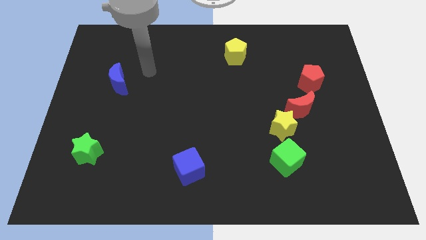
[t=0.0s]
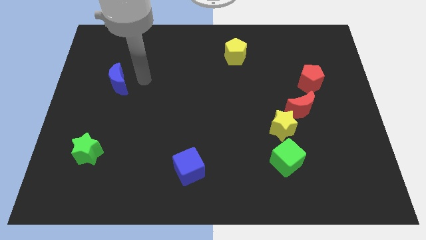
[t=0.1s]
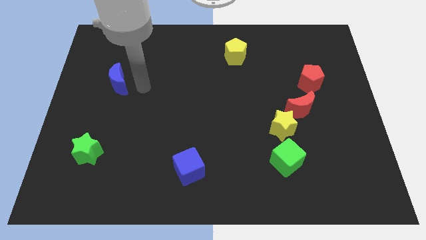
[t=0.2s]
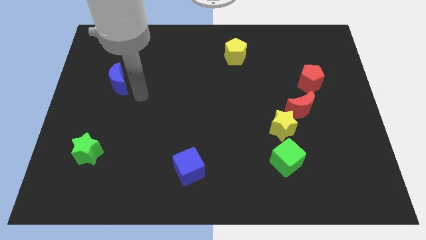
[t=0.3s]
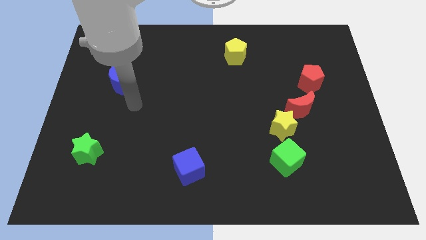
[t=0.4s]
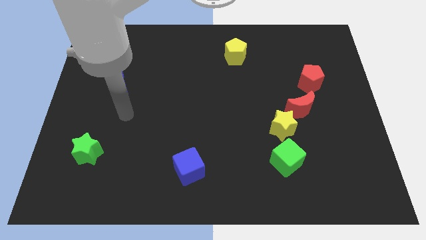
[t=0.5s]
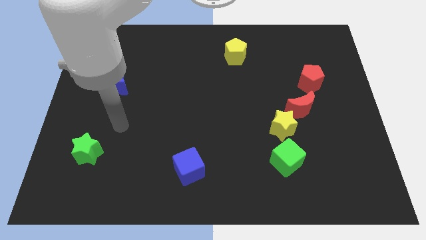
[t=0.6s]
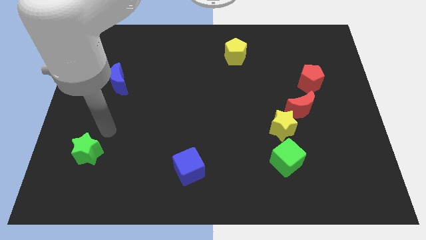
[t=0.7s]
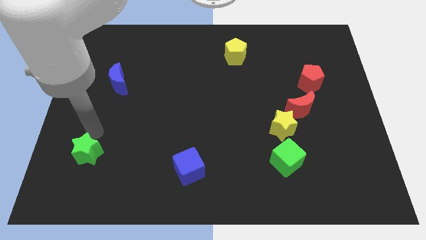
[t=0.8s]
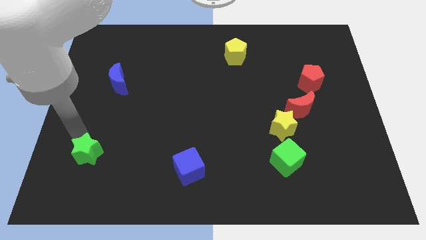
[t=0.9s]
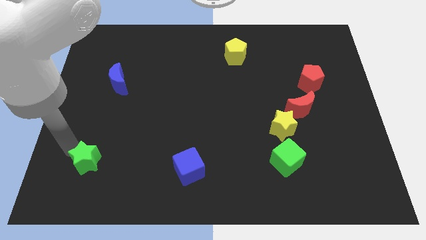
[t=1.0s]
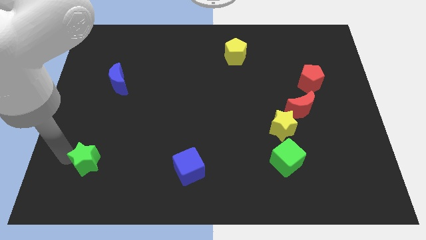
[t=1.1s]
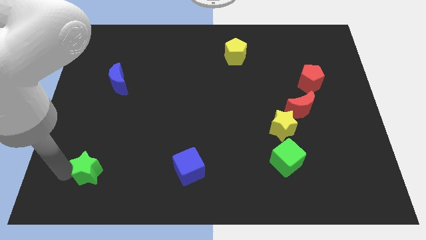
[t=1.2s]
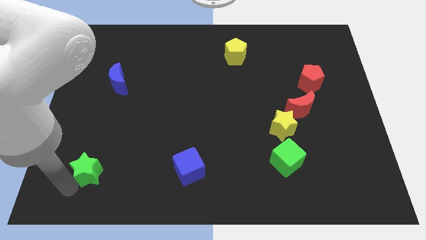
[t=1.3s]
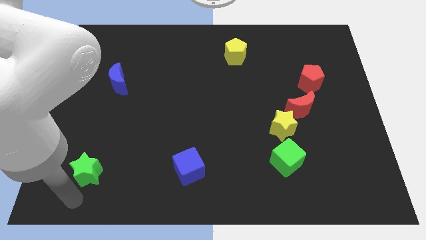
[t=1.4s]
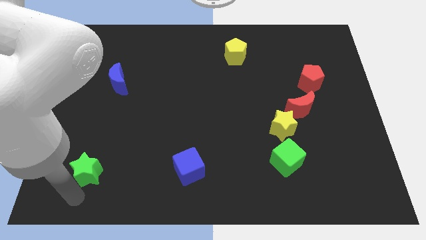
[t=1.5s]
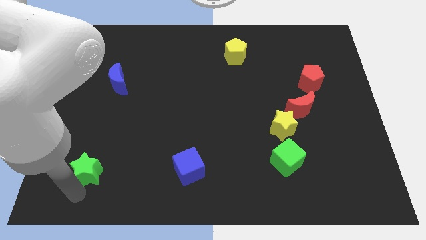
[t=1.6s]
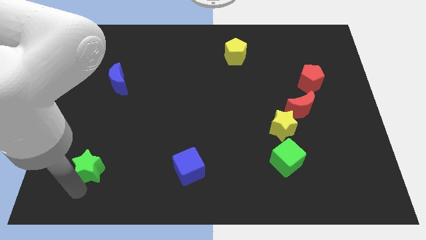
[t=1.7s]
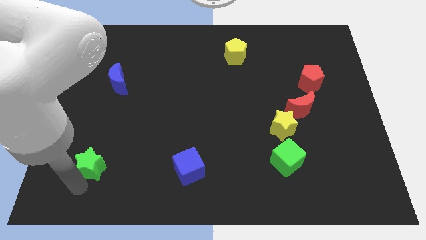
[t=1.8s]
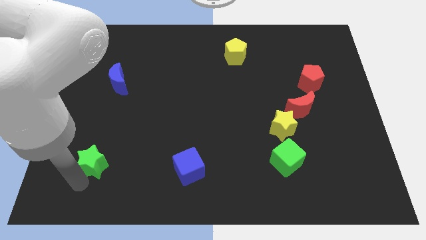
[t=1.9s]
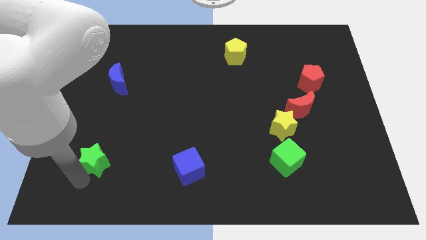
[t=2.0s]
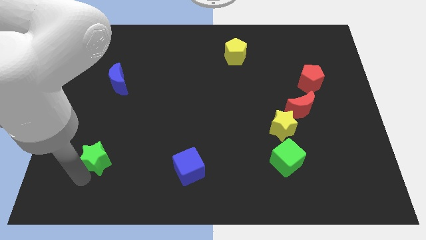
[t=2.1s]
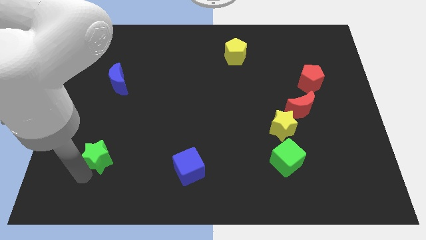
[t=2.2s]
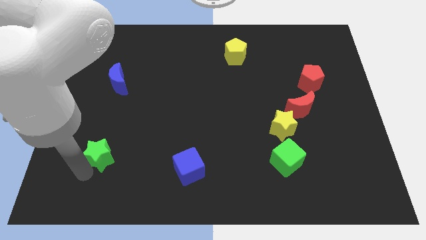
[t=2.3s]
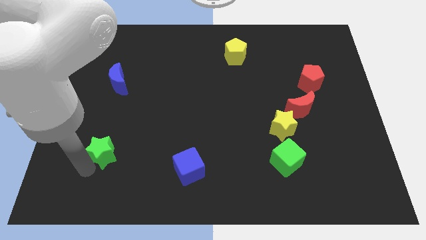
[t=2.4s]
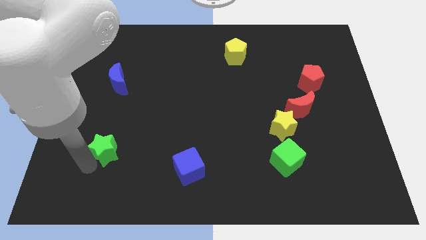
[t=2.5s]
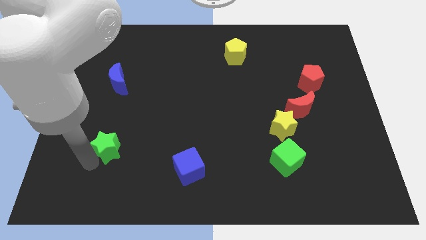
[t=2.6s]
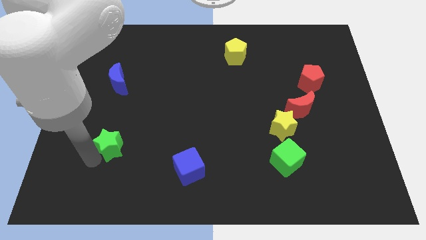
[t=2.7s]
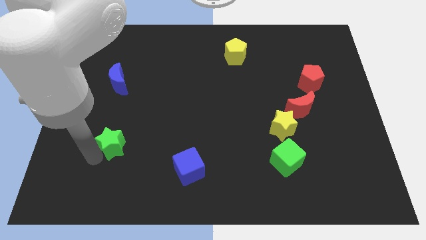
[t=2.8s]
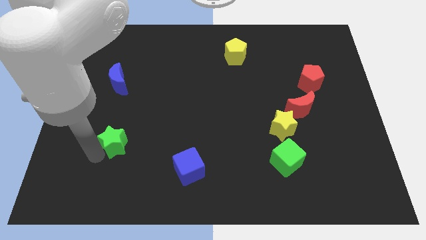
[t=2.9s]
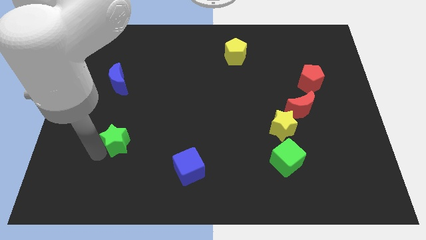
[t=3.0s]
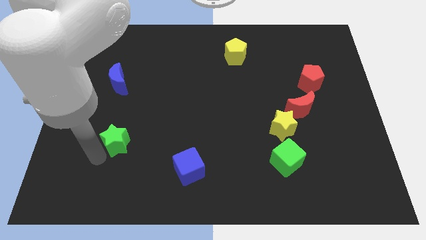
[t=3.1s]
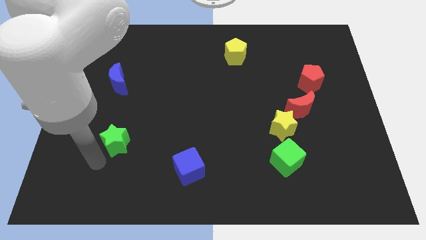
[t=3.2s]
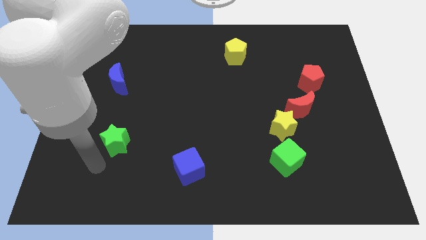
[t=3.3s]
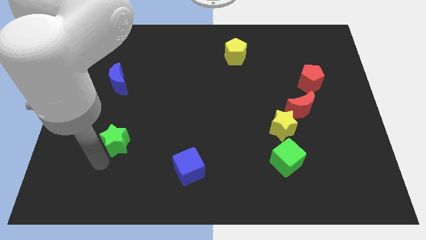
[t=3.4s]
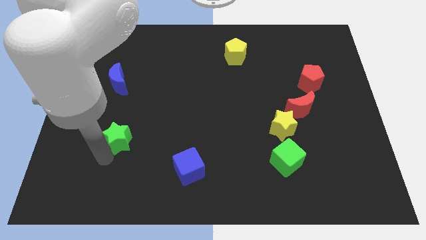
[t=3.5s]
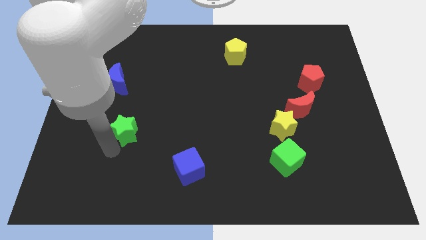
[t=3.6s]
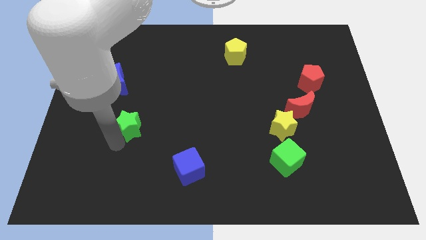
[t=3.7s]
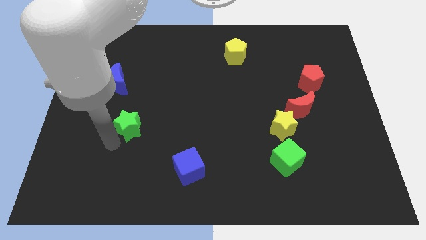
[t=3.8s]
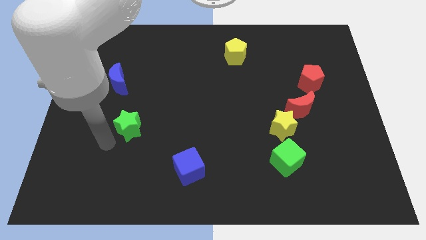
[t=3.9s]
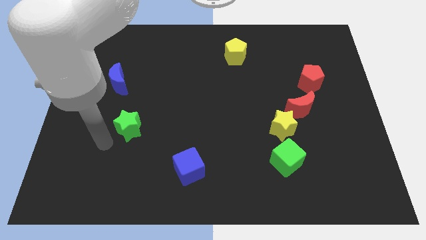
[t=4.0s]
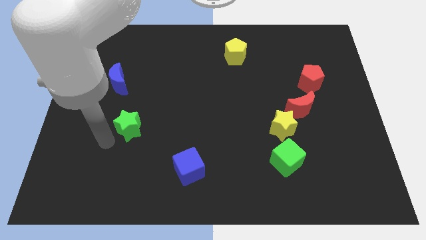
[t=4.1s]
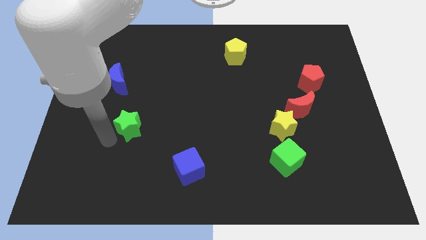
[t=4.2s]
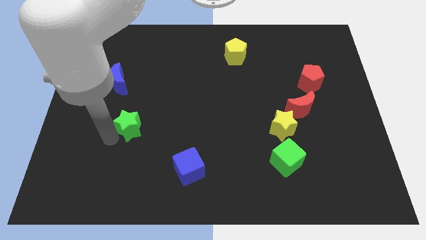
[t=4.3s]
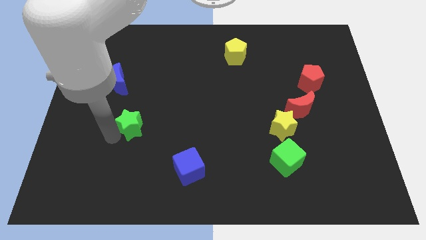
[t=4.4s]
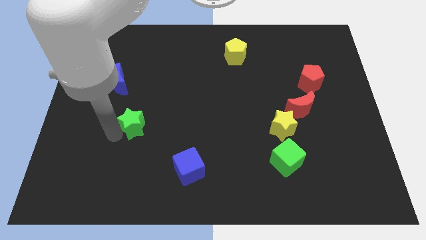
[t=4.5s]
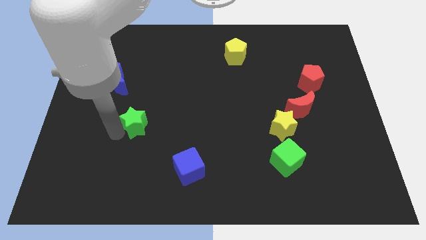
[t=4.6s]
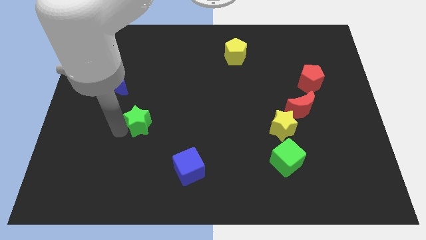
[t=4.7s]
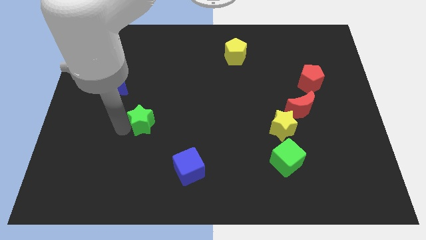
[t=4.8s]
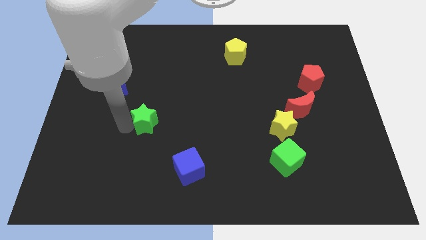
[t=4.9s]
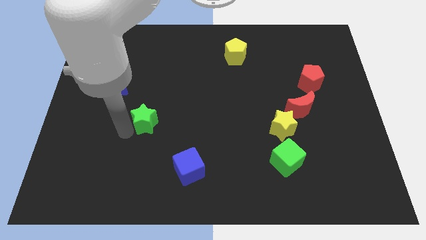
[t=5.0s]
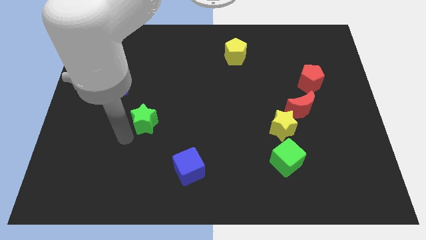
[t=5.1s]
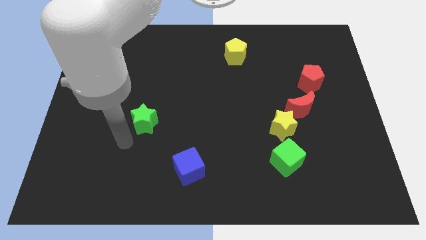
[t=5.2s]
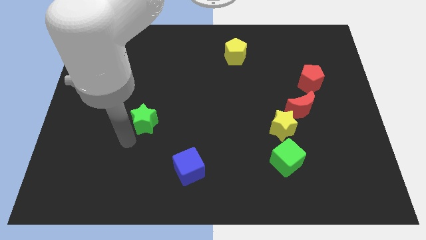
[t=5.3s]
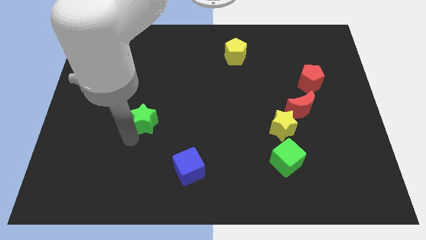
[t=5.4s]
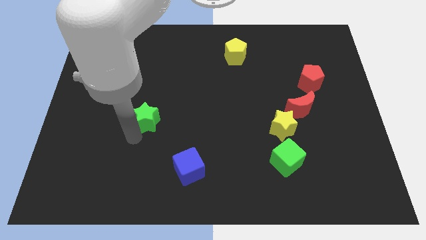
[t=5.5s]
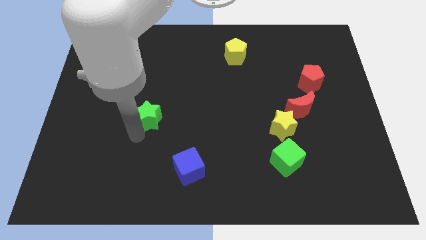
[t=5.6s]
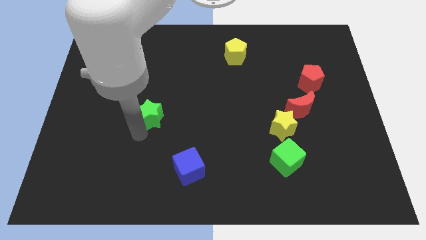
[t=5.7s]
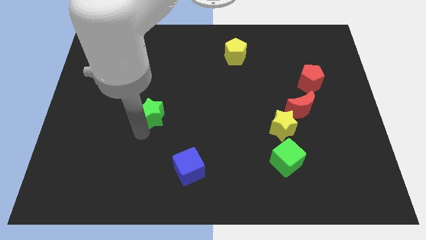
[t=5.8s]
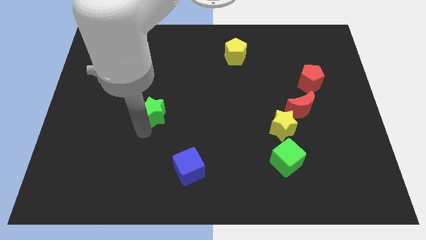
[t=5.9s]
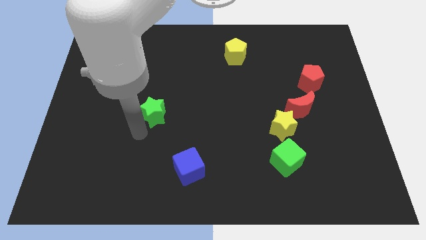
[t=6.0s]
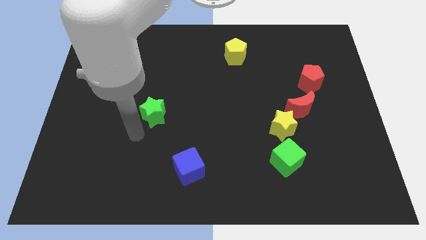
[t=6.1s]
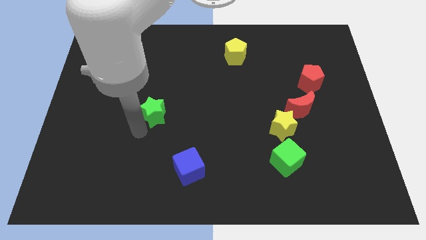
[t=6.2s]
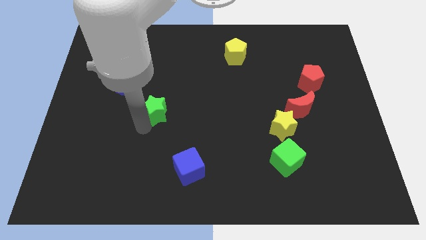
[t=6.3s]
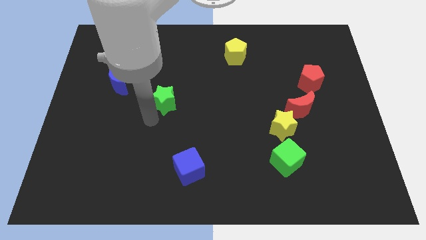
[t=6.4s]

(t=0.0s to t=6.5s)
push the green star diagonally up and right

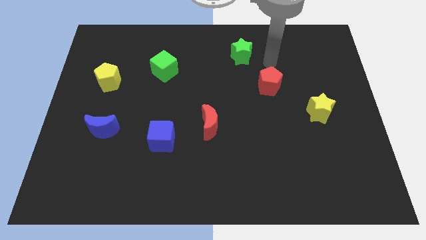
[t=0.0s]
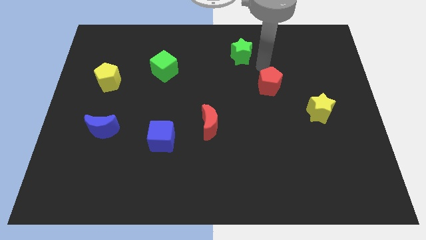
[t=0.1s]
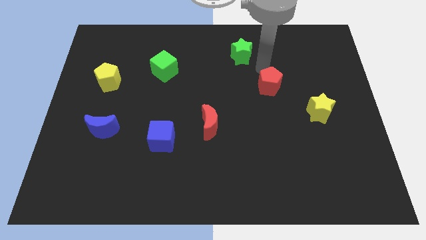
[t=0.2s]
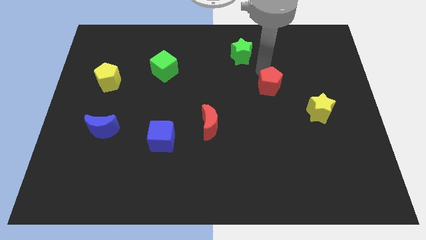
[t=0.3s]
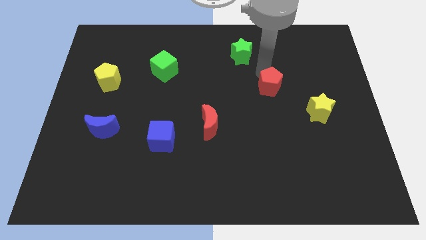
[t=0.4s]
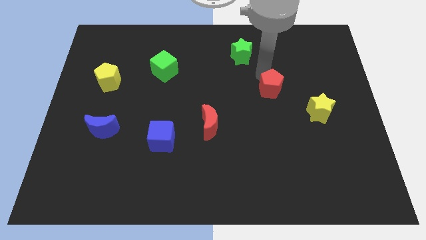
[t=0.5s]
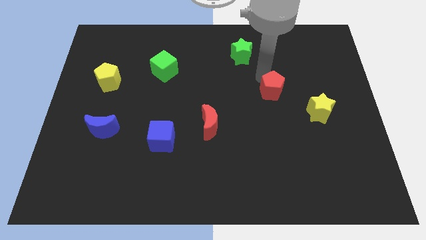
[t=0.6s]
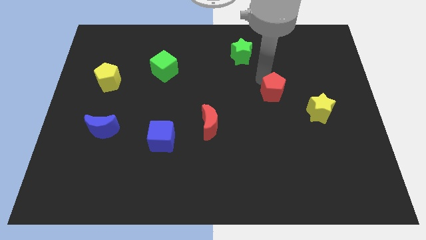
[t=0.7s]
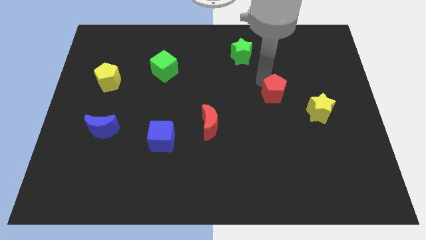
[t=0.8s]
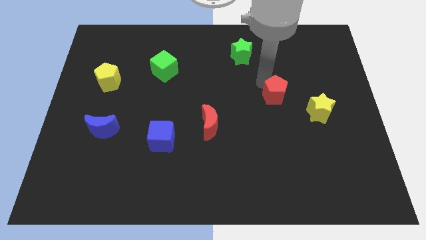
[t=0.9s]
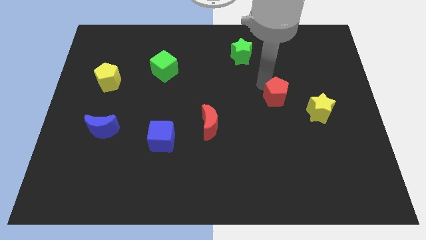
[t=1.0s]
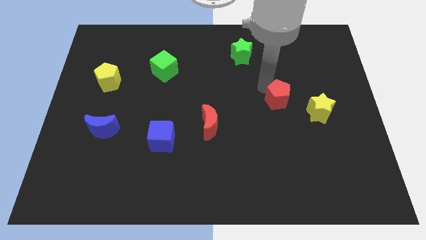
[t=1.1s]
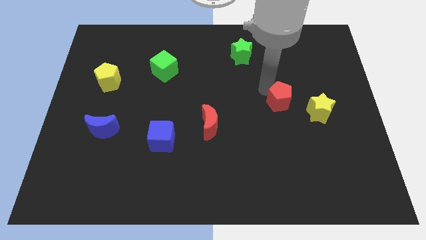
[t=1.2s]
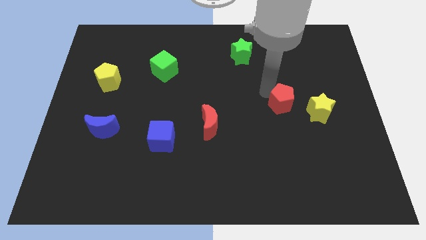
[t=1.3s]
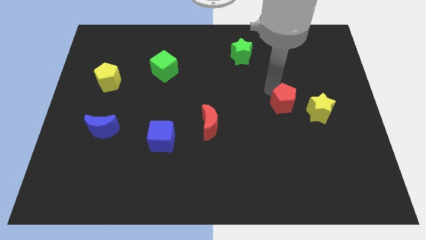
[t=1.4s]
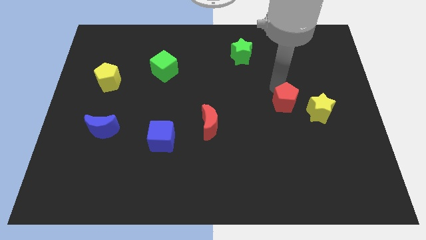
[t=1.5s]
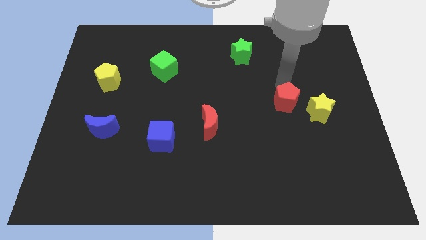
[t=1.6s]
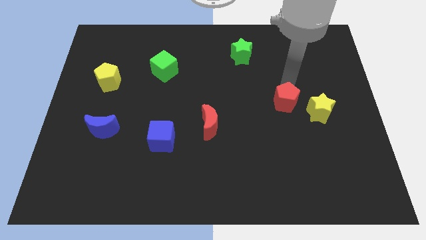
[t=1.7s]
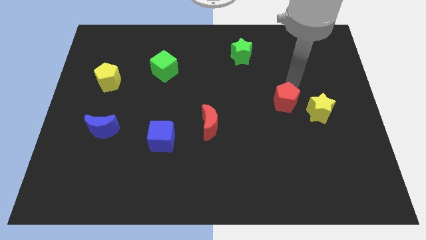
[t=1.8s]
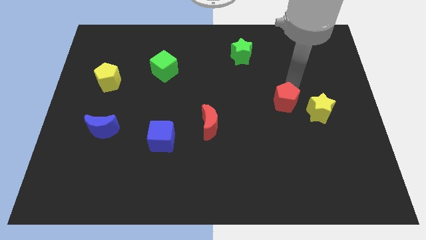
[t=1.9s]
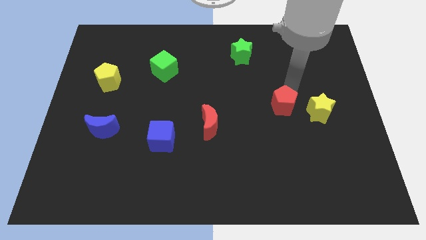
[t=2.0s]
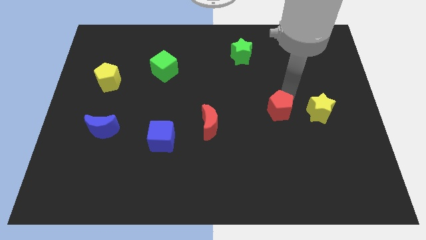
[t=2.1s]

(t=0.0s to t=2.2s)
move the red pentagon down a little bit
